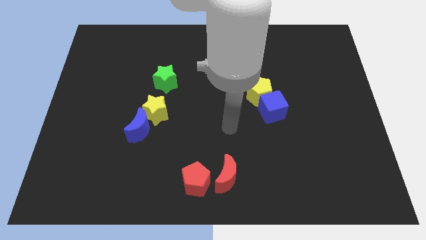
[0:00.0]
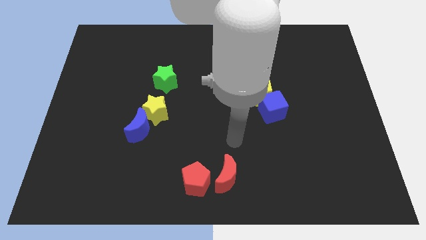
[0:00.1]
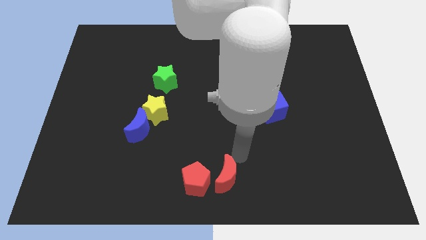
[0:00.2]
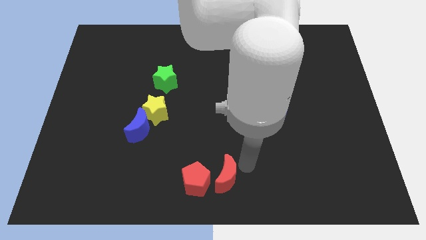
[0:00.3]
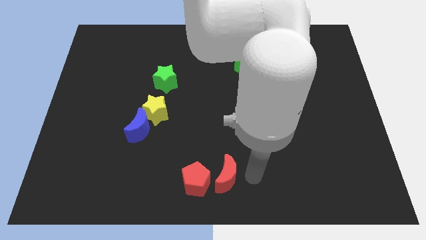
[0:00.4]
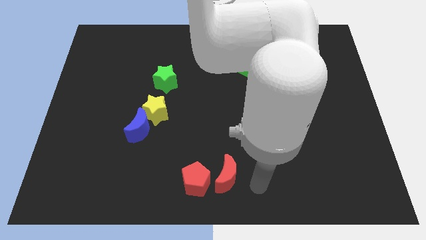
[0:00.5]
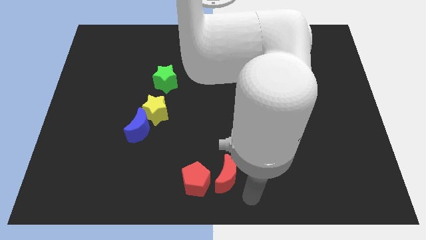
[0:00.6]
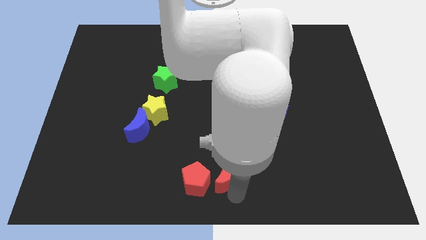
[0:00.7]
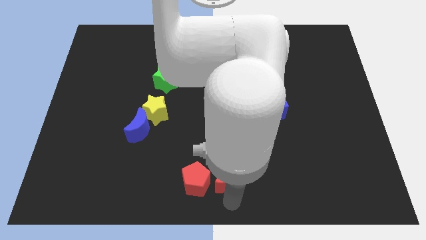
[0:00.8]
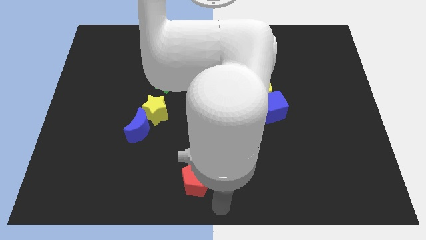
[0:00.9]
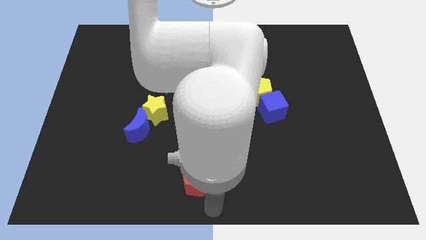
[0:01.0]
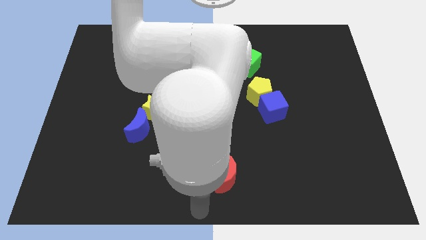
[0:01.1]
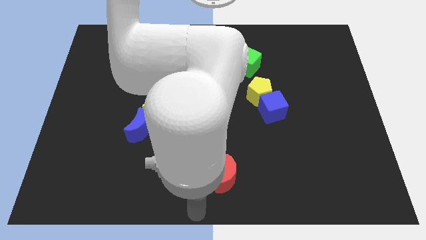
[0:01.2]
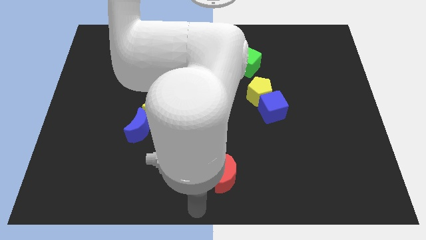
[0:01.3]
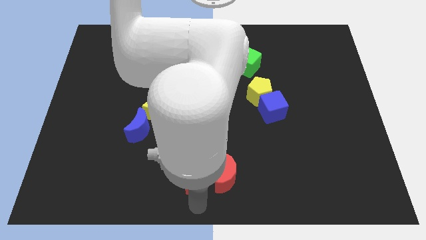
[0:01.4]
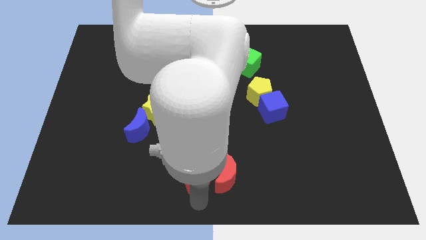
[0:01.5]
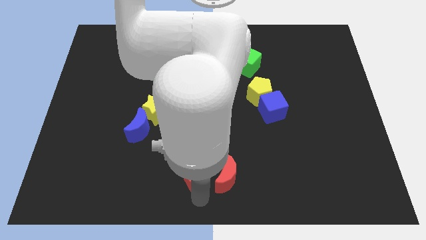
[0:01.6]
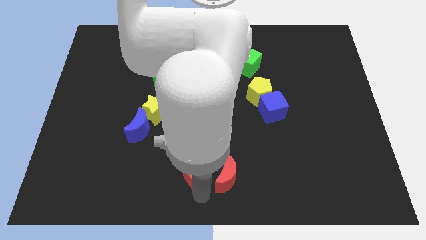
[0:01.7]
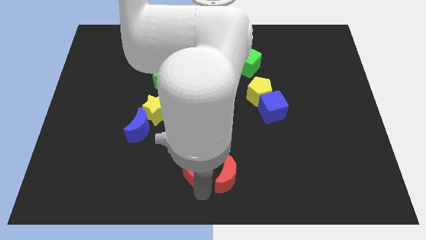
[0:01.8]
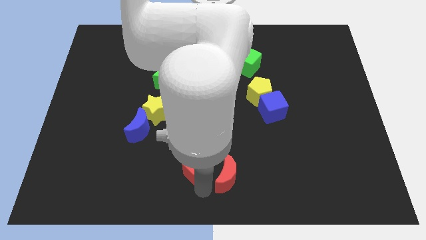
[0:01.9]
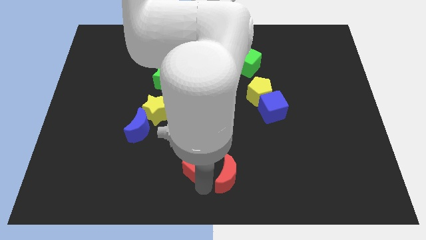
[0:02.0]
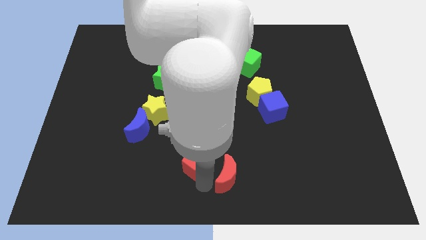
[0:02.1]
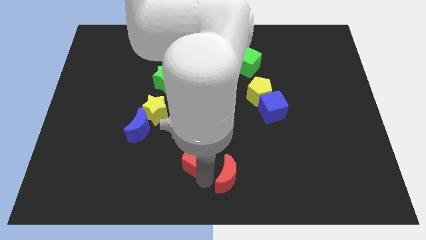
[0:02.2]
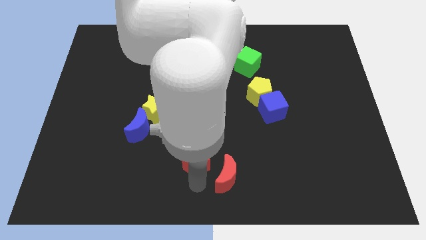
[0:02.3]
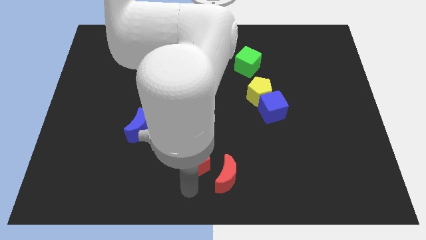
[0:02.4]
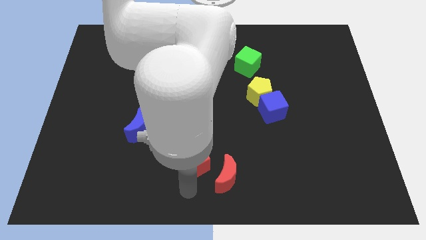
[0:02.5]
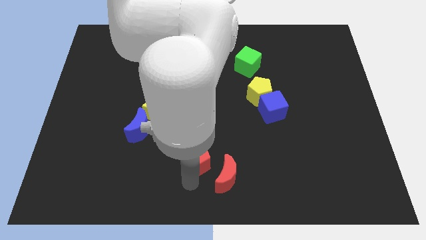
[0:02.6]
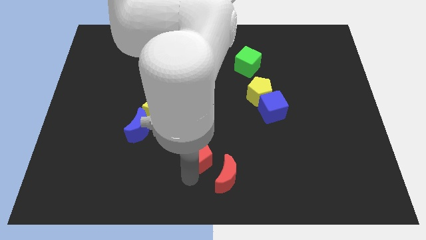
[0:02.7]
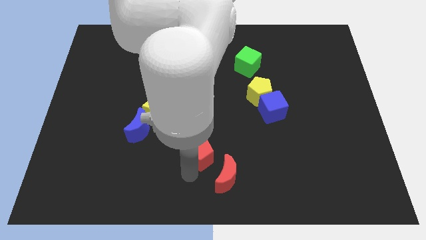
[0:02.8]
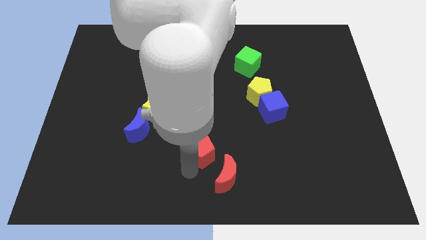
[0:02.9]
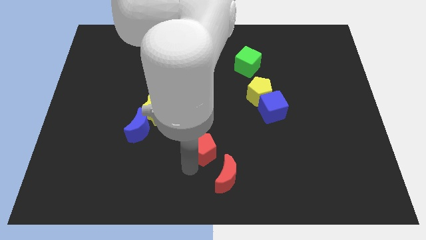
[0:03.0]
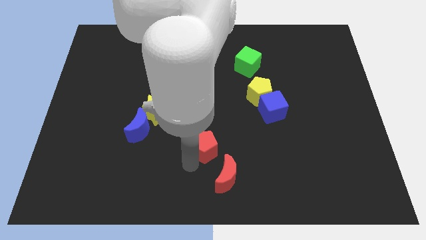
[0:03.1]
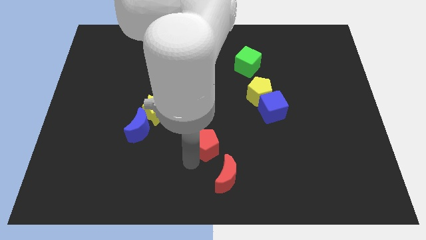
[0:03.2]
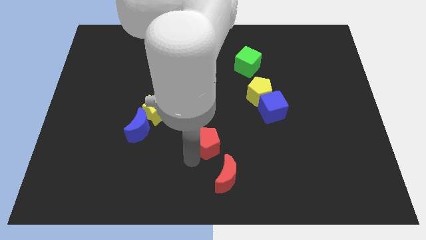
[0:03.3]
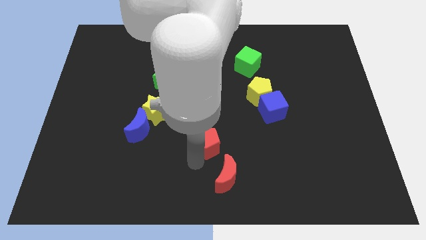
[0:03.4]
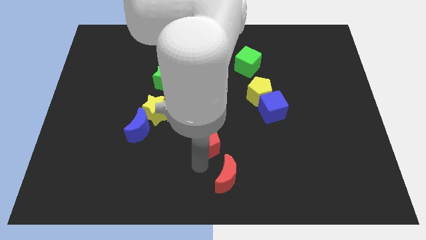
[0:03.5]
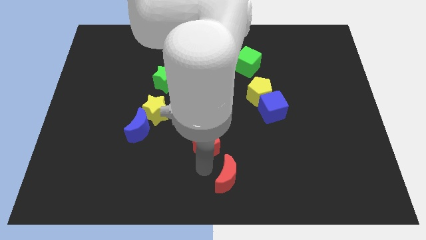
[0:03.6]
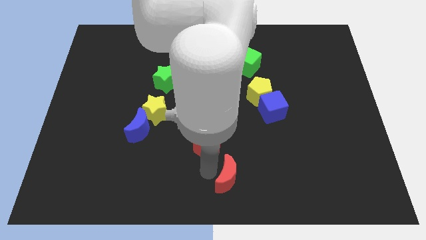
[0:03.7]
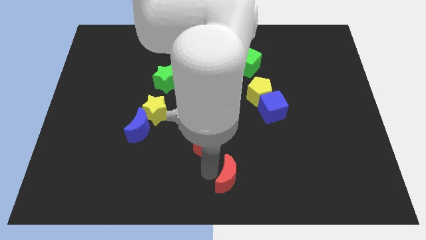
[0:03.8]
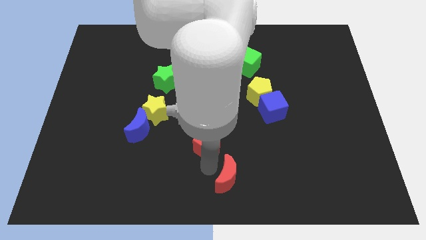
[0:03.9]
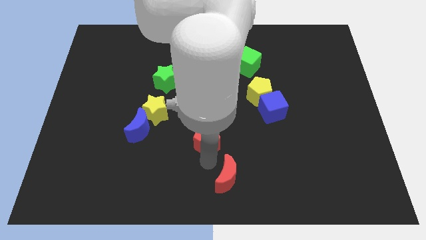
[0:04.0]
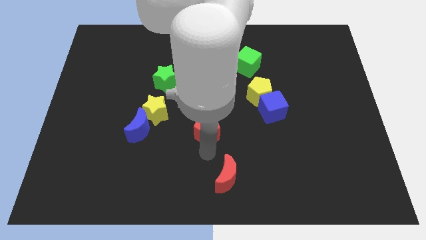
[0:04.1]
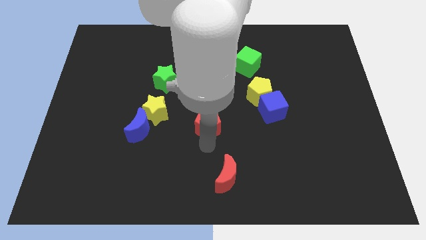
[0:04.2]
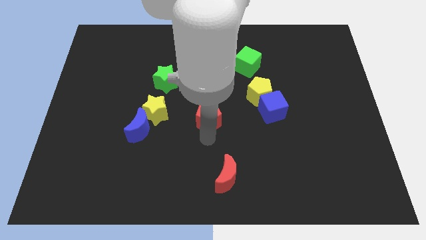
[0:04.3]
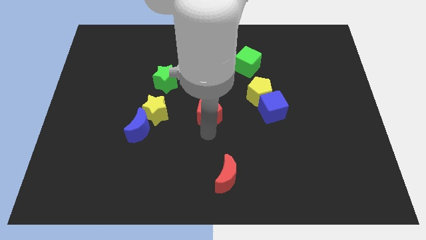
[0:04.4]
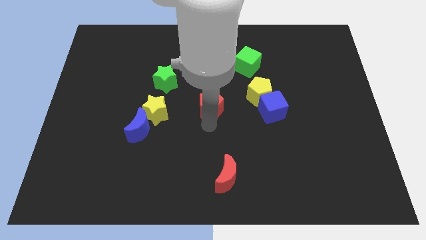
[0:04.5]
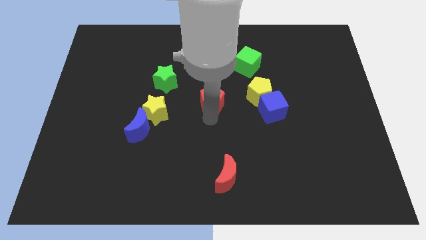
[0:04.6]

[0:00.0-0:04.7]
slide the red pentagon up

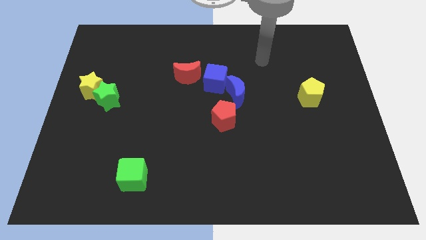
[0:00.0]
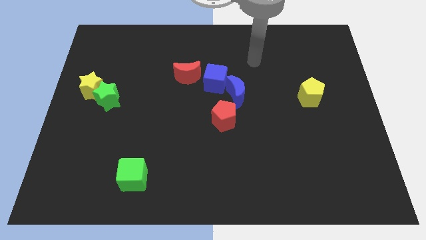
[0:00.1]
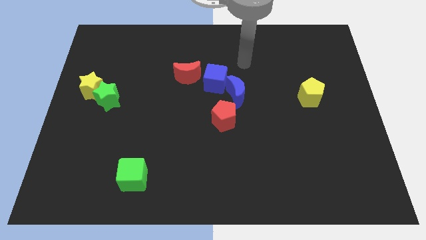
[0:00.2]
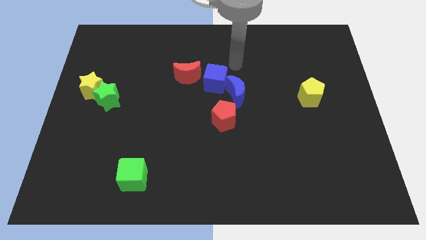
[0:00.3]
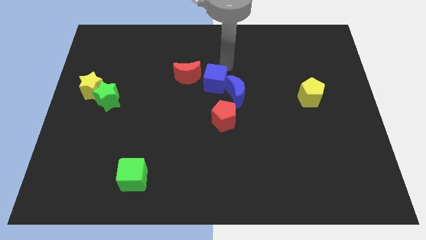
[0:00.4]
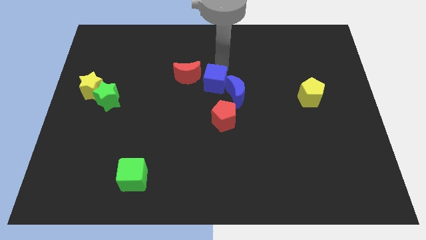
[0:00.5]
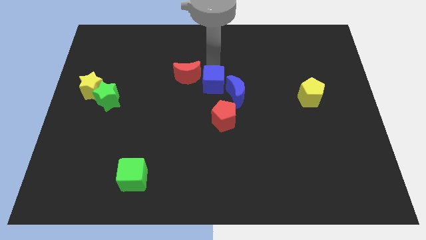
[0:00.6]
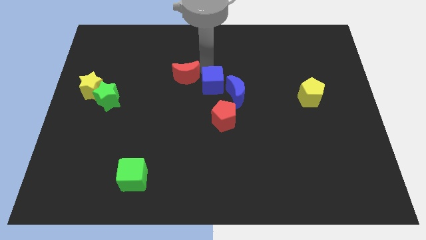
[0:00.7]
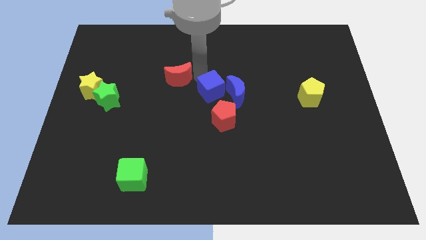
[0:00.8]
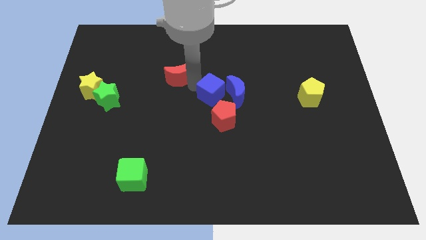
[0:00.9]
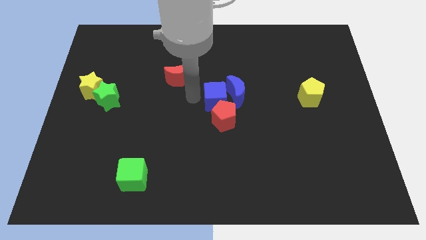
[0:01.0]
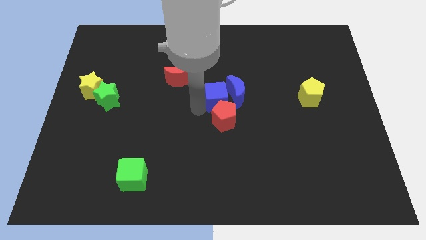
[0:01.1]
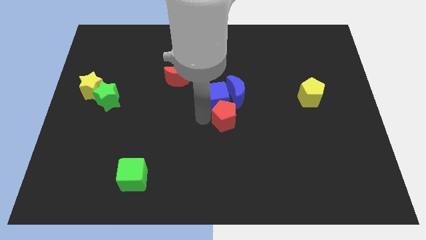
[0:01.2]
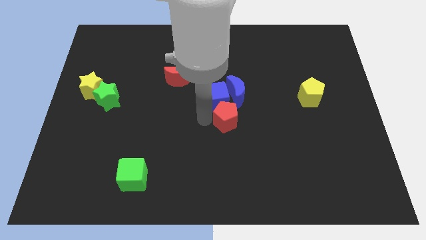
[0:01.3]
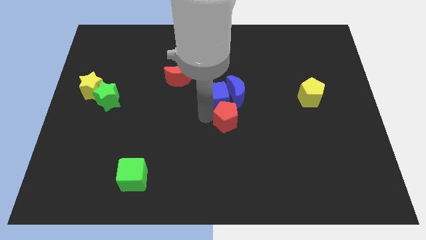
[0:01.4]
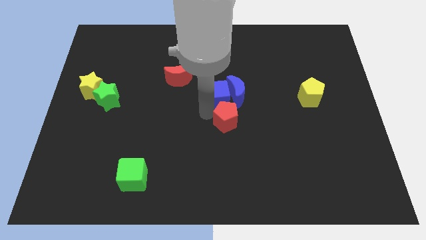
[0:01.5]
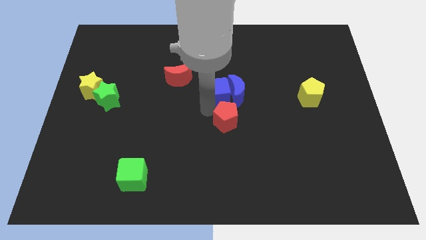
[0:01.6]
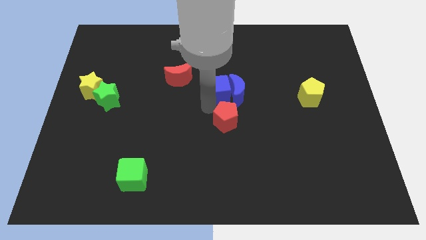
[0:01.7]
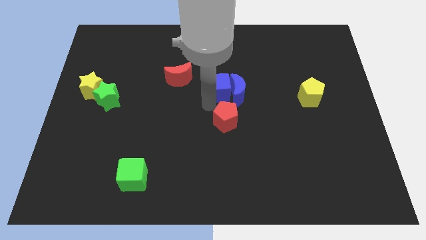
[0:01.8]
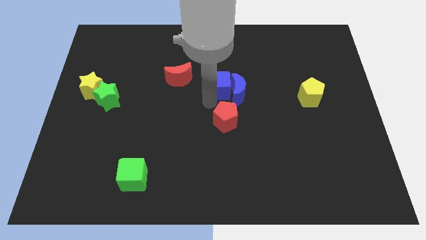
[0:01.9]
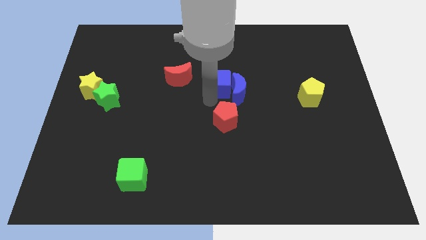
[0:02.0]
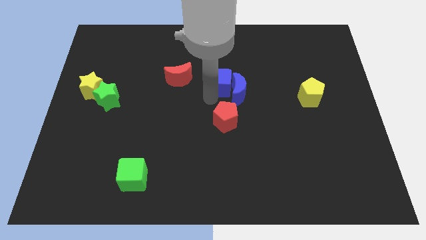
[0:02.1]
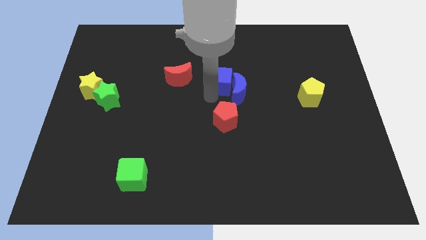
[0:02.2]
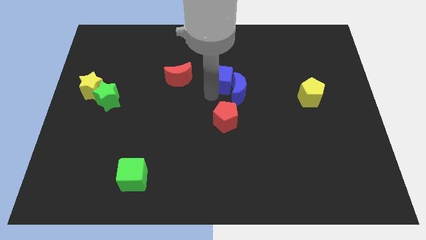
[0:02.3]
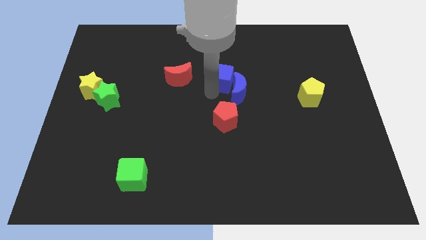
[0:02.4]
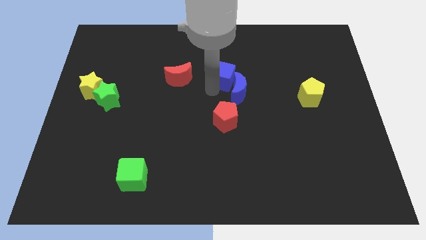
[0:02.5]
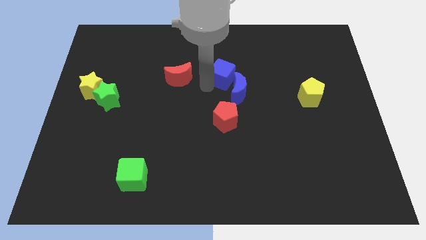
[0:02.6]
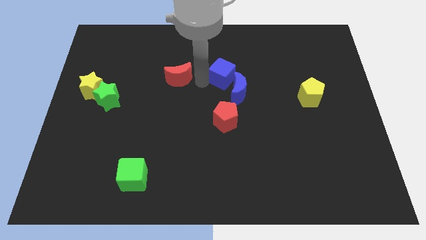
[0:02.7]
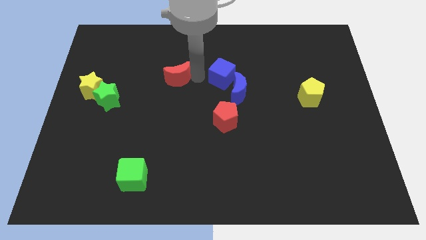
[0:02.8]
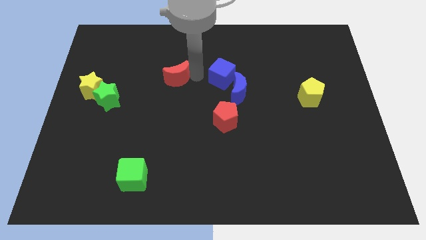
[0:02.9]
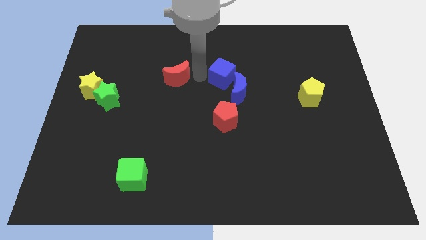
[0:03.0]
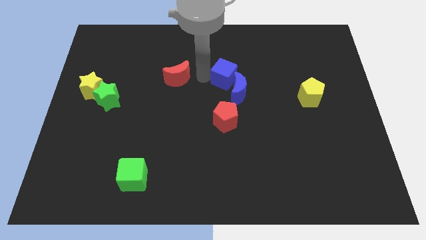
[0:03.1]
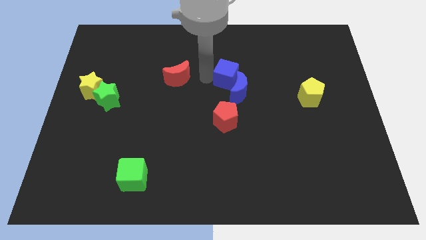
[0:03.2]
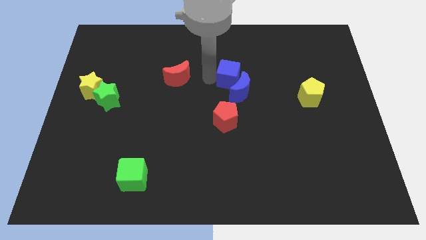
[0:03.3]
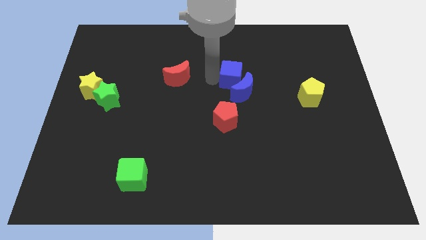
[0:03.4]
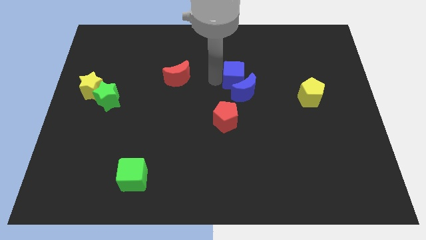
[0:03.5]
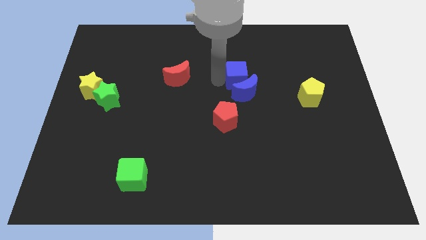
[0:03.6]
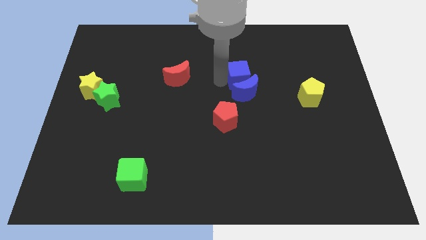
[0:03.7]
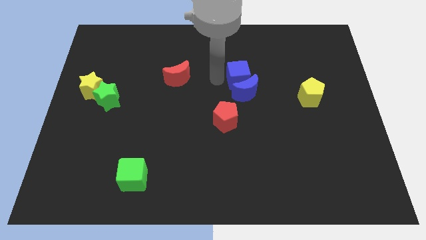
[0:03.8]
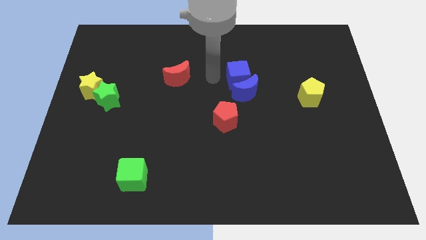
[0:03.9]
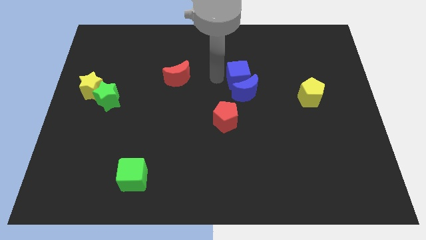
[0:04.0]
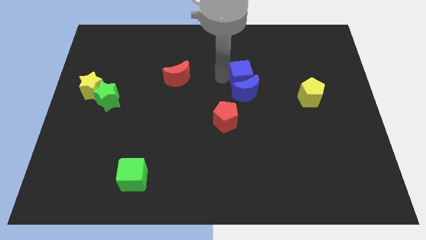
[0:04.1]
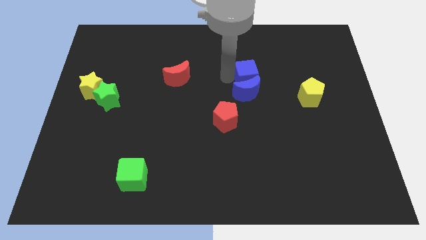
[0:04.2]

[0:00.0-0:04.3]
slightly push the blue cube to the right
